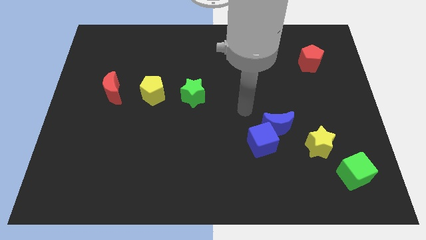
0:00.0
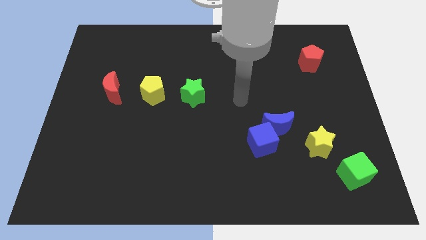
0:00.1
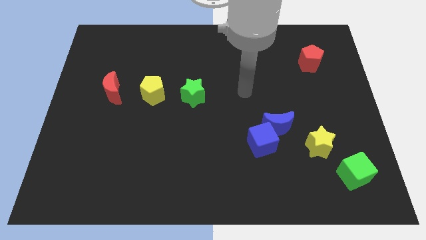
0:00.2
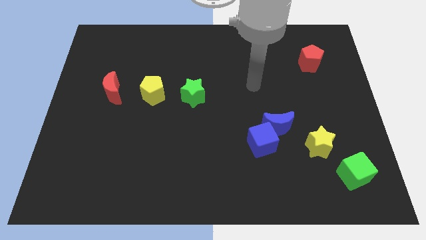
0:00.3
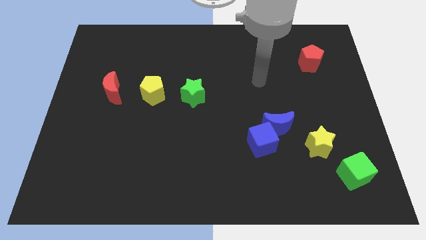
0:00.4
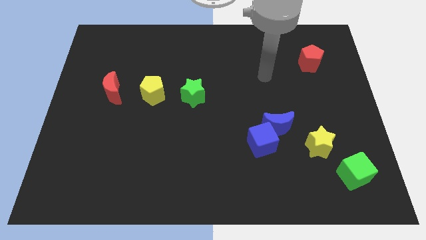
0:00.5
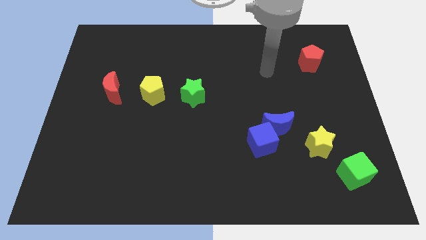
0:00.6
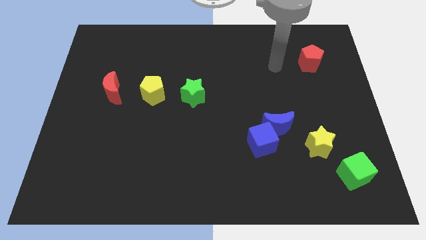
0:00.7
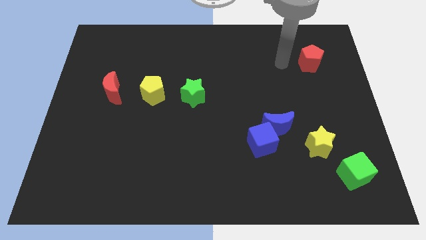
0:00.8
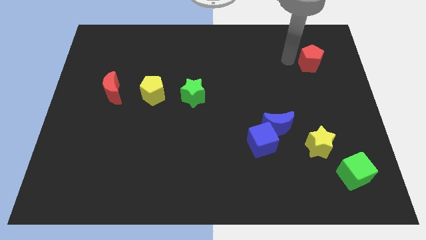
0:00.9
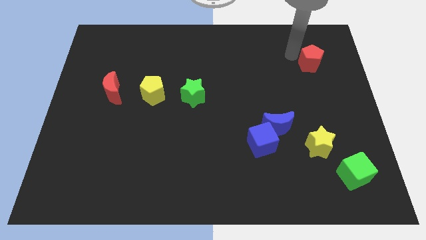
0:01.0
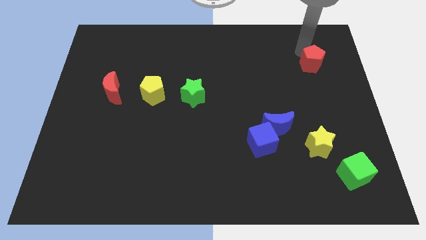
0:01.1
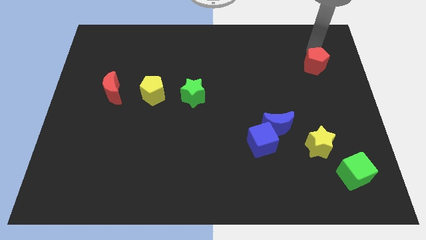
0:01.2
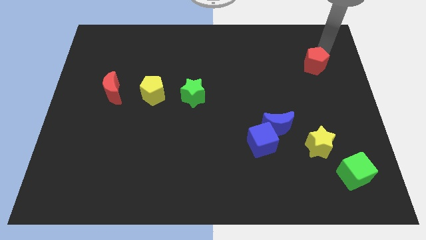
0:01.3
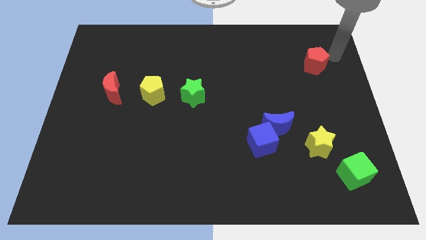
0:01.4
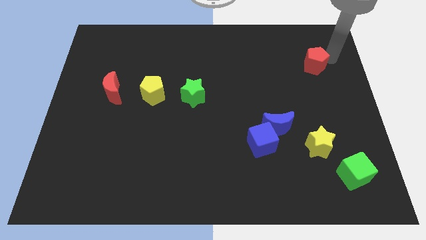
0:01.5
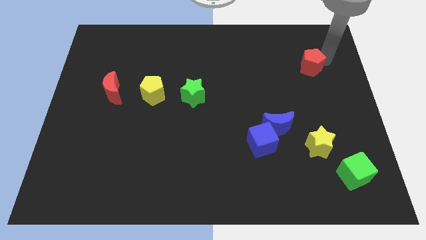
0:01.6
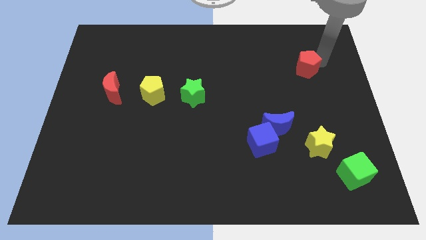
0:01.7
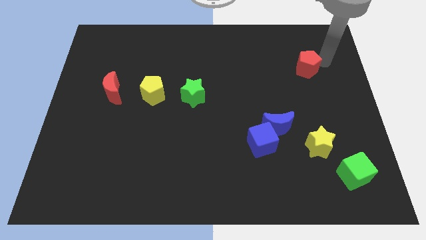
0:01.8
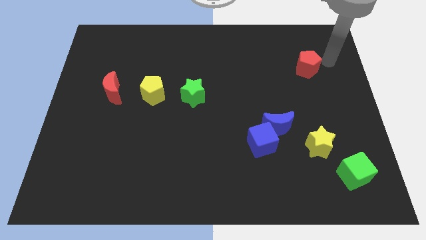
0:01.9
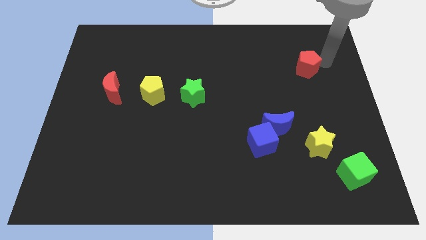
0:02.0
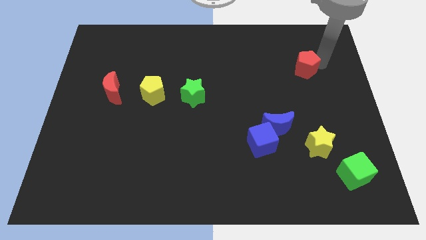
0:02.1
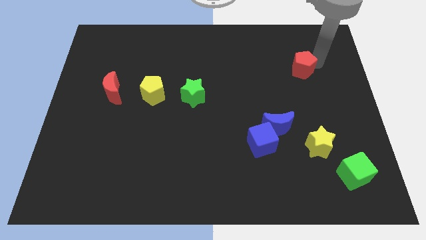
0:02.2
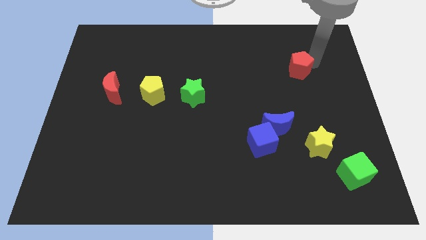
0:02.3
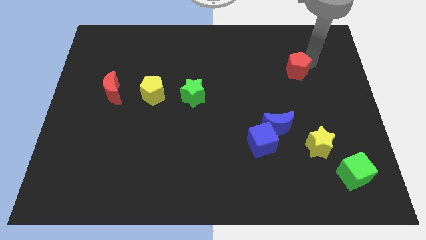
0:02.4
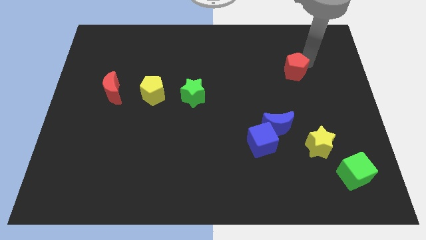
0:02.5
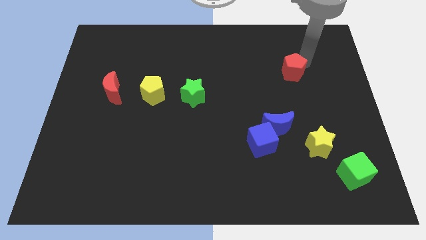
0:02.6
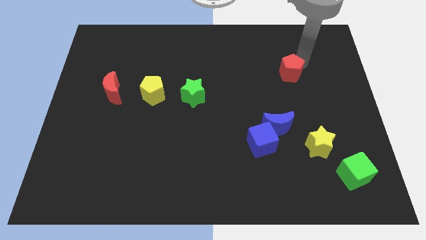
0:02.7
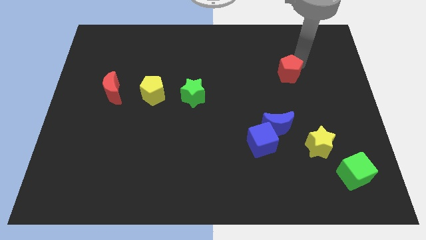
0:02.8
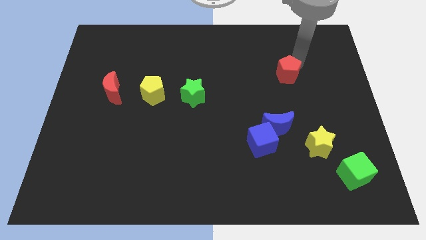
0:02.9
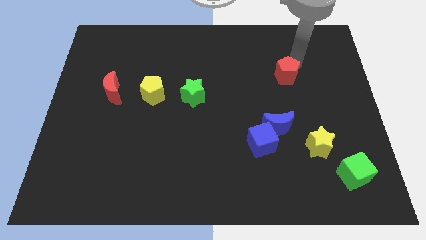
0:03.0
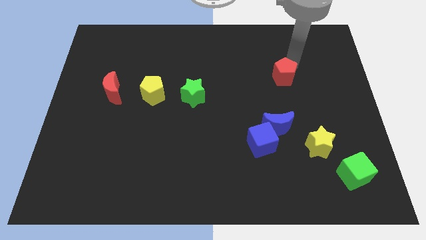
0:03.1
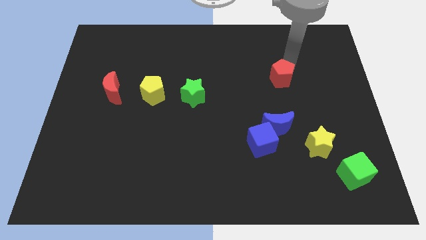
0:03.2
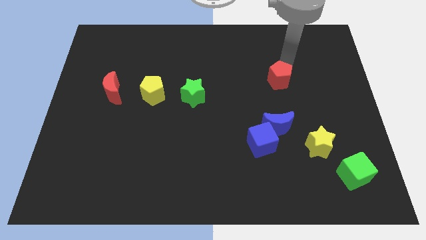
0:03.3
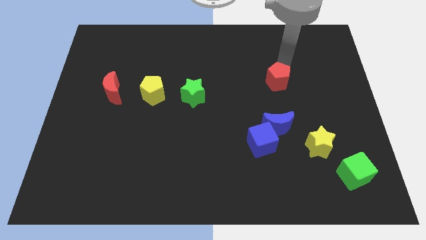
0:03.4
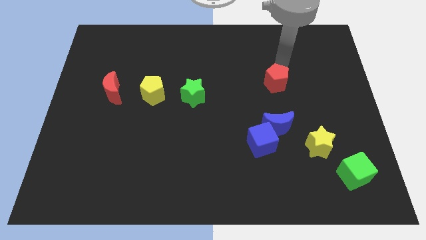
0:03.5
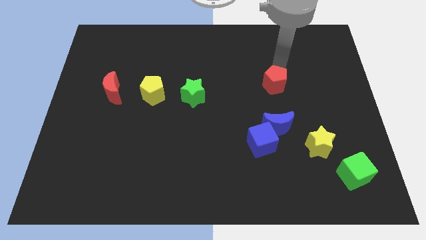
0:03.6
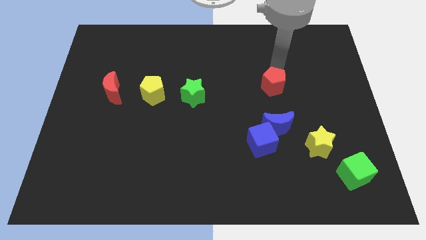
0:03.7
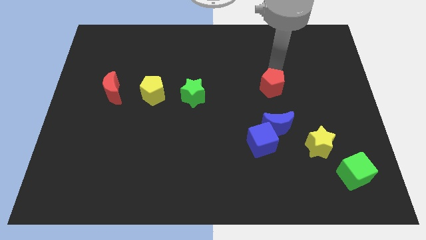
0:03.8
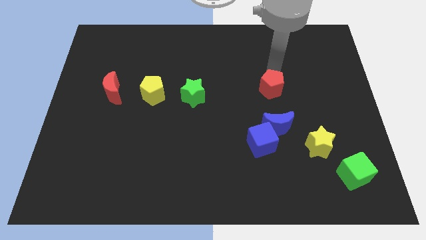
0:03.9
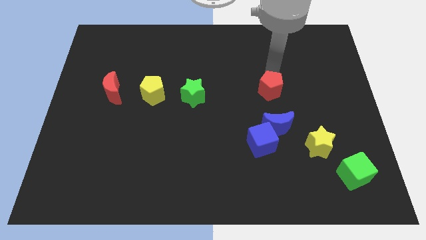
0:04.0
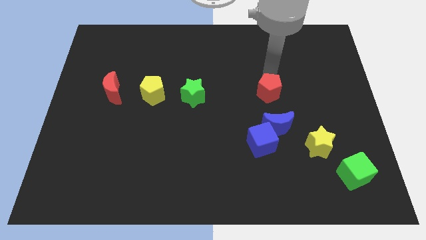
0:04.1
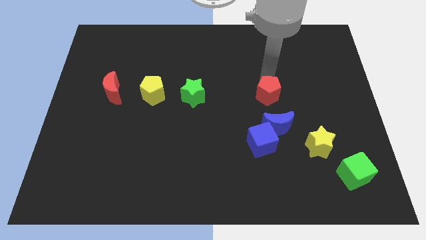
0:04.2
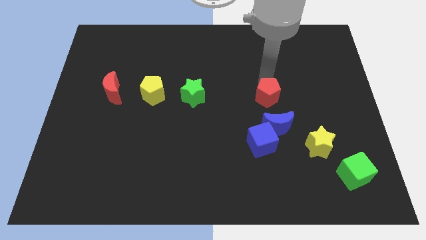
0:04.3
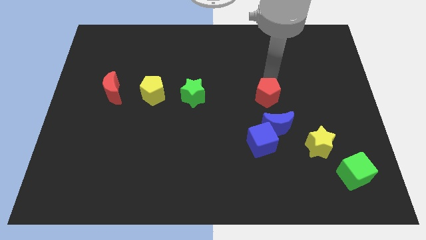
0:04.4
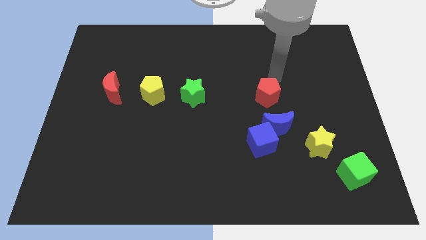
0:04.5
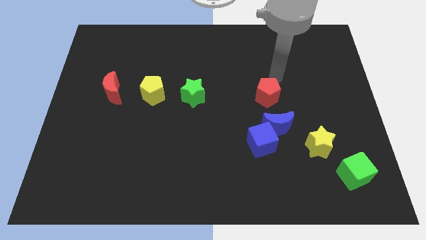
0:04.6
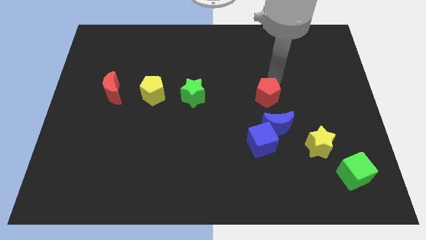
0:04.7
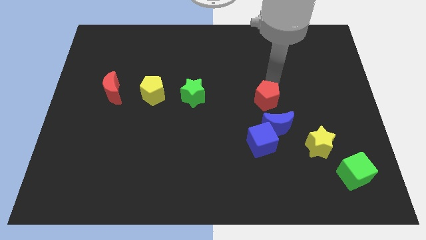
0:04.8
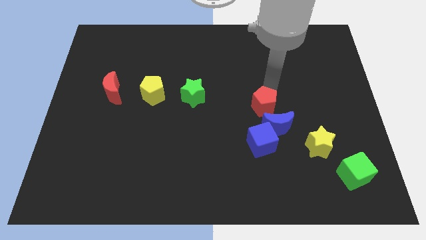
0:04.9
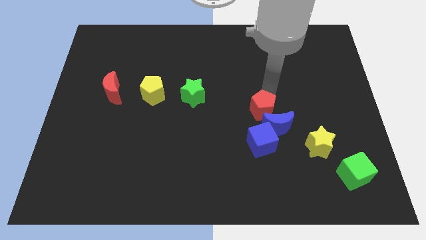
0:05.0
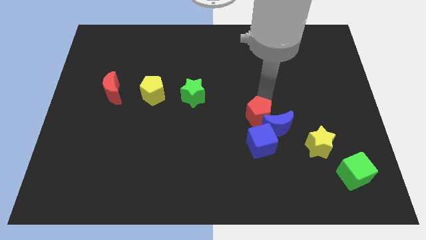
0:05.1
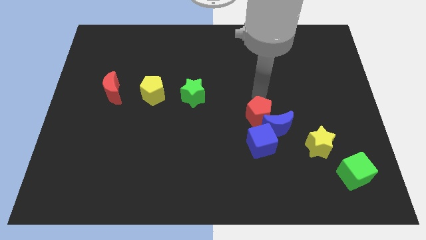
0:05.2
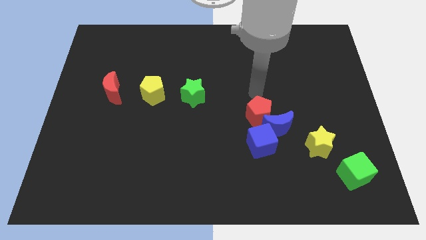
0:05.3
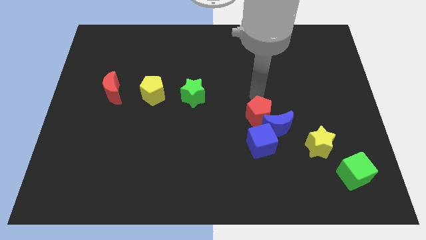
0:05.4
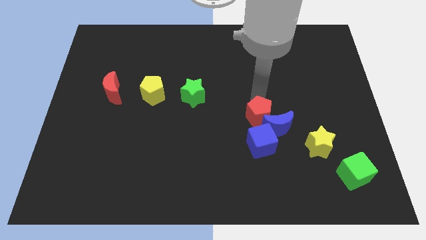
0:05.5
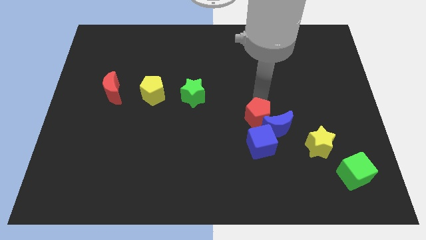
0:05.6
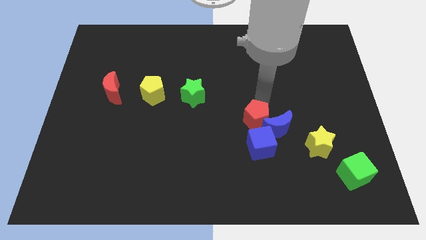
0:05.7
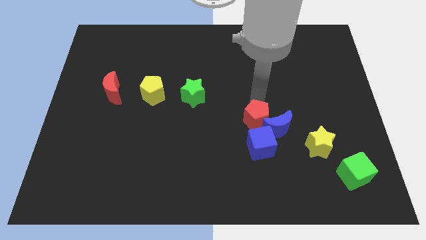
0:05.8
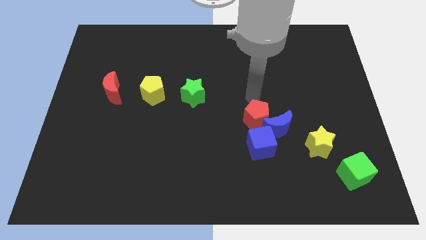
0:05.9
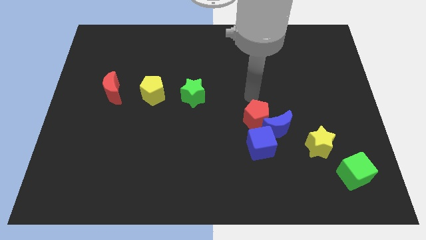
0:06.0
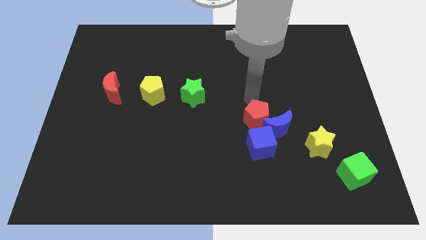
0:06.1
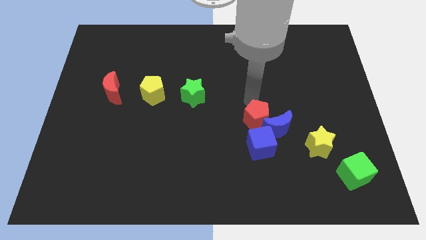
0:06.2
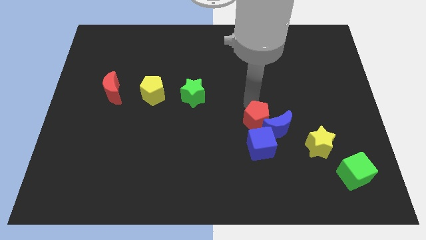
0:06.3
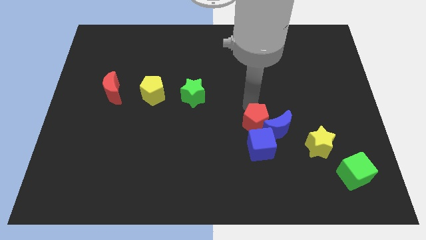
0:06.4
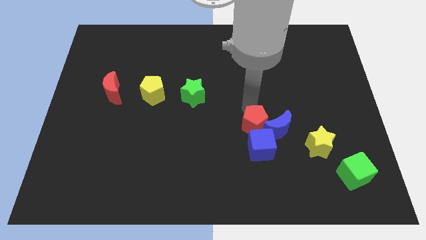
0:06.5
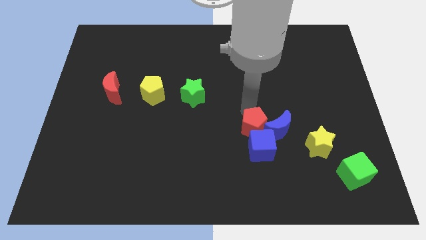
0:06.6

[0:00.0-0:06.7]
slide the red pentagon close to the blue cube

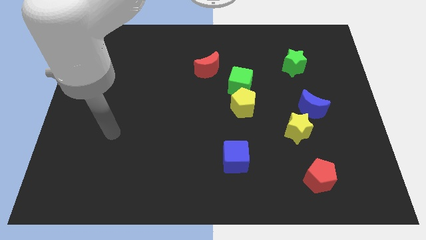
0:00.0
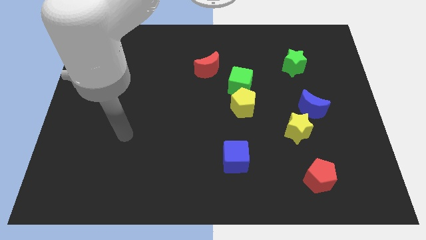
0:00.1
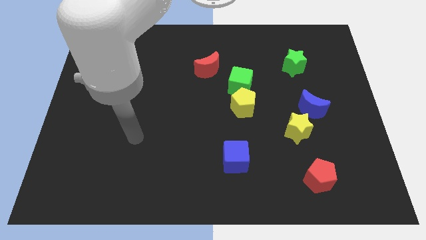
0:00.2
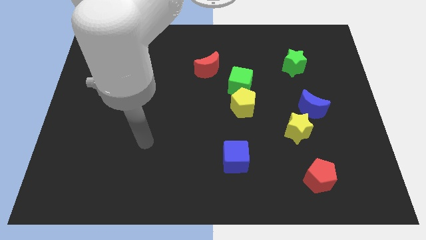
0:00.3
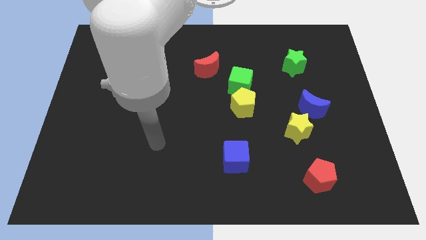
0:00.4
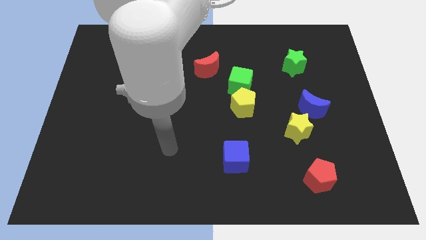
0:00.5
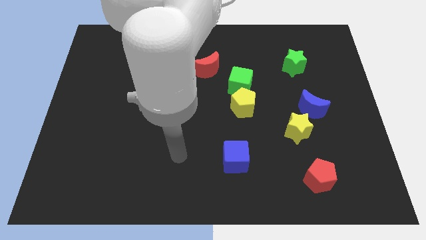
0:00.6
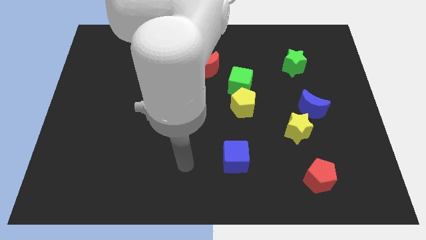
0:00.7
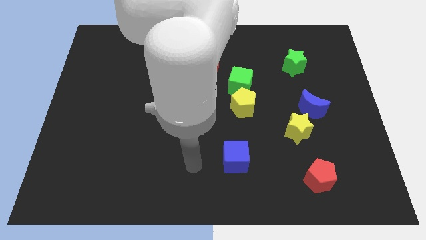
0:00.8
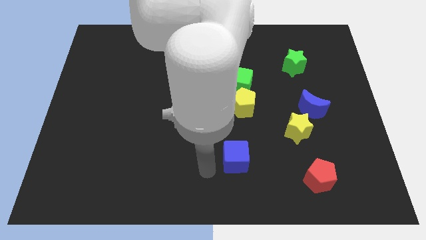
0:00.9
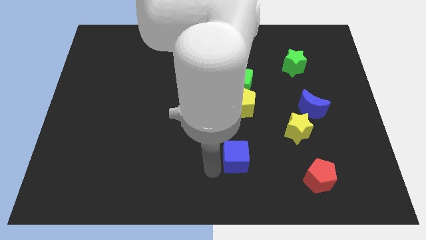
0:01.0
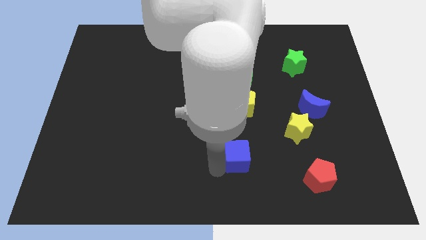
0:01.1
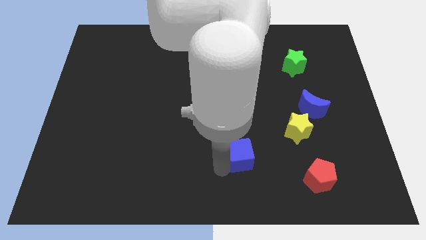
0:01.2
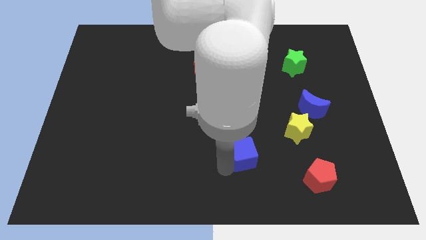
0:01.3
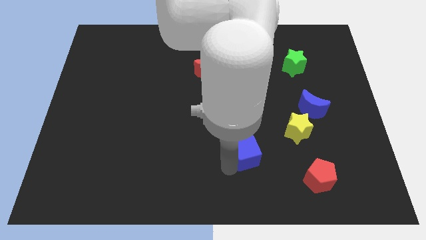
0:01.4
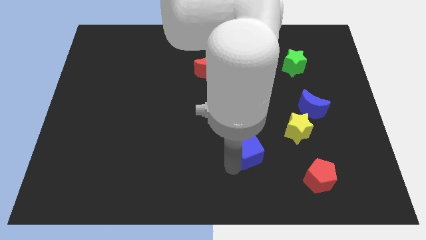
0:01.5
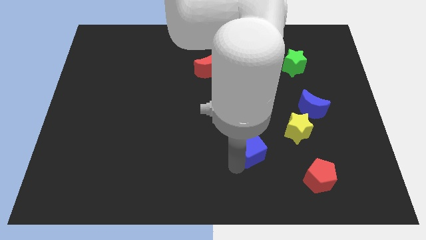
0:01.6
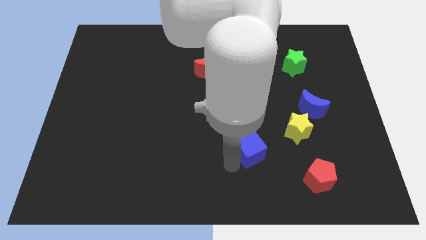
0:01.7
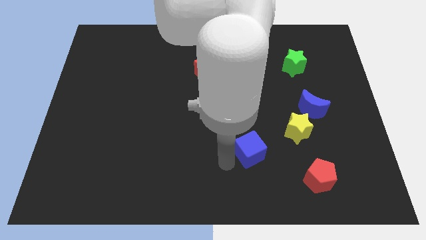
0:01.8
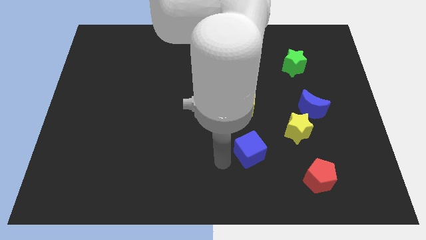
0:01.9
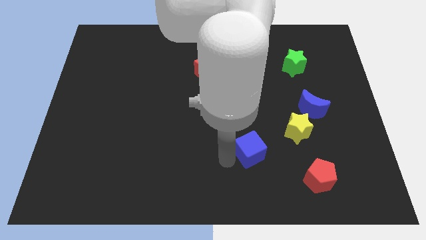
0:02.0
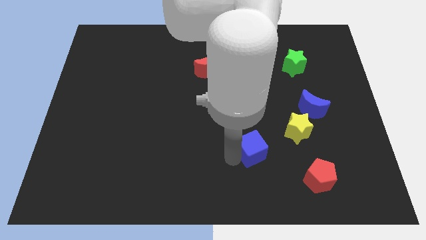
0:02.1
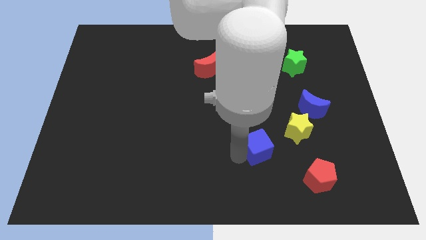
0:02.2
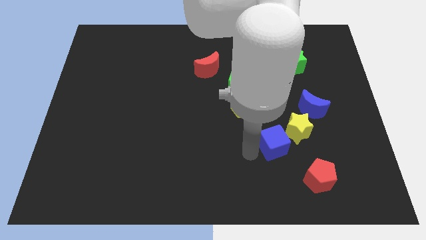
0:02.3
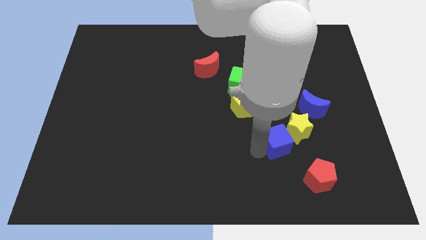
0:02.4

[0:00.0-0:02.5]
put the blue cube next to the yellow star
